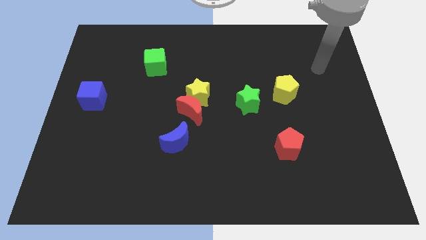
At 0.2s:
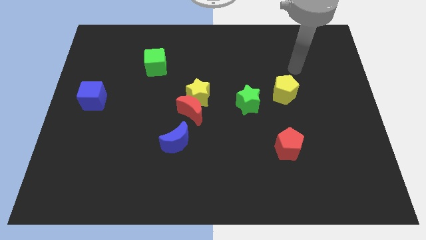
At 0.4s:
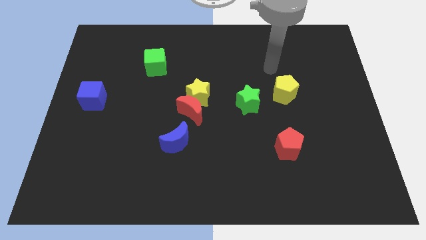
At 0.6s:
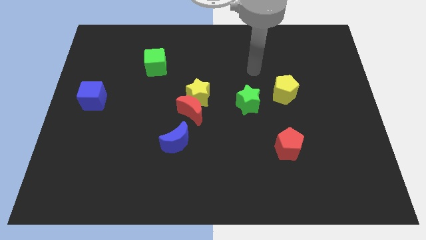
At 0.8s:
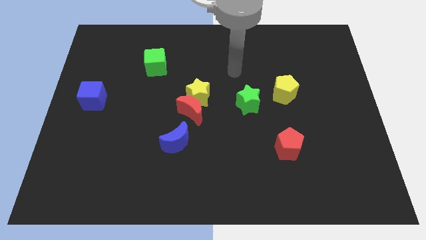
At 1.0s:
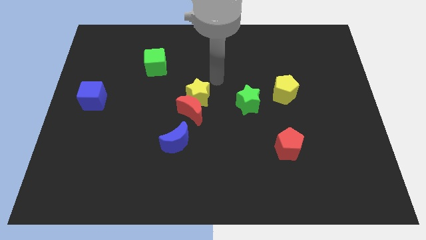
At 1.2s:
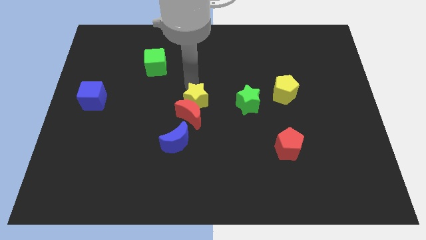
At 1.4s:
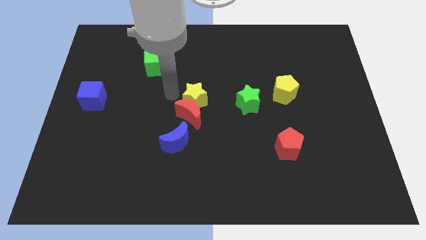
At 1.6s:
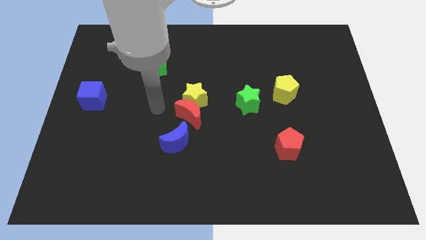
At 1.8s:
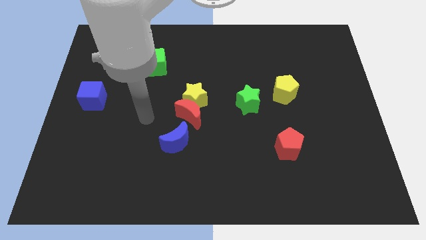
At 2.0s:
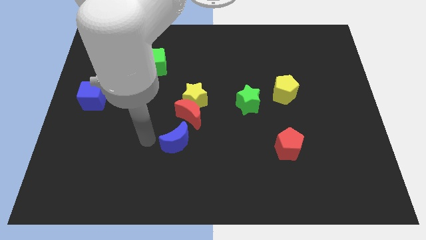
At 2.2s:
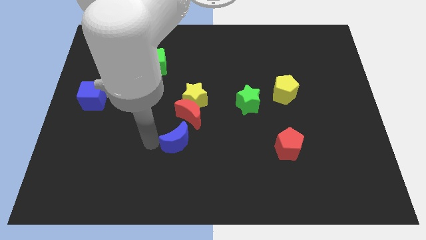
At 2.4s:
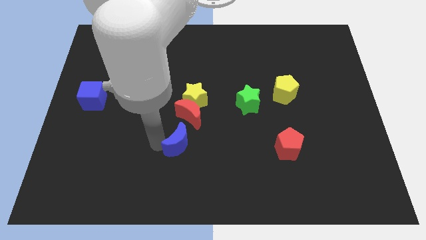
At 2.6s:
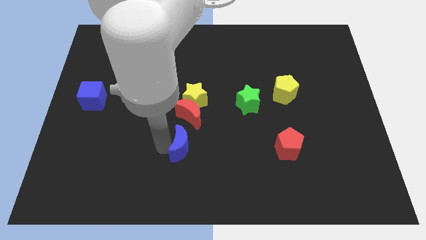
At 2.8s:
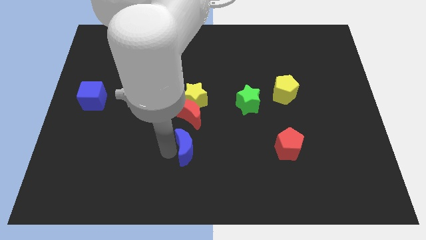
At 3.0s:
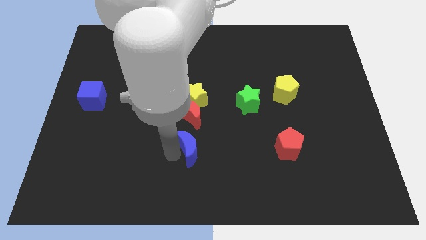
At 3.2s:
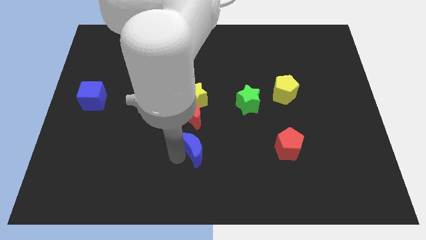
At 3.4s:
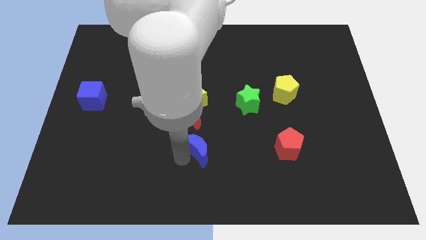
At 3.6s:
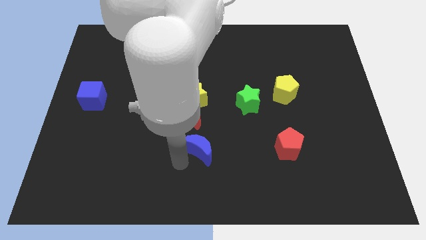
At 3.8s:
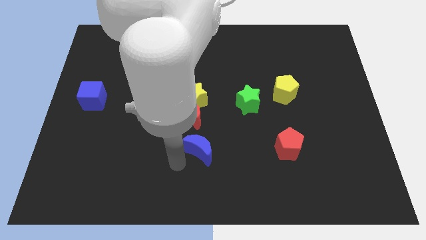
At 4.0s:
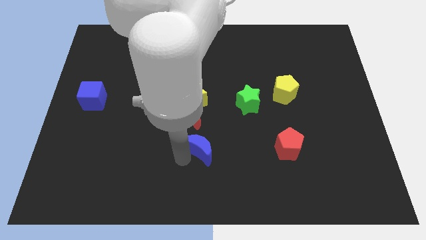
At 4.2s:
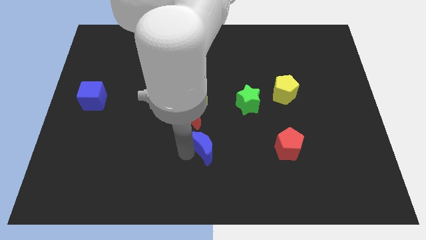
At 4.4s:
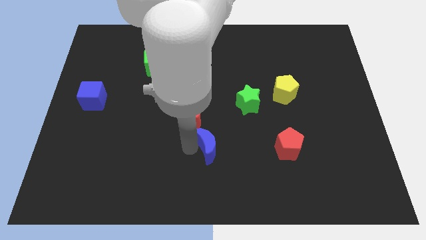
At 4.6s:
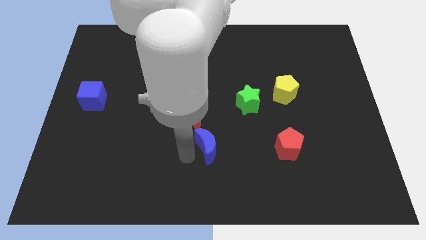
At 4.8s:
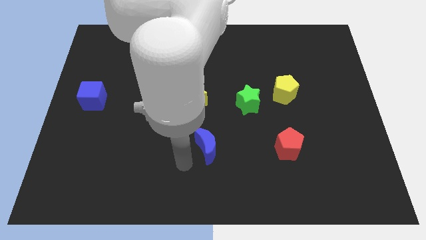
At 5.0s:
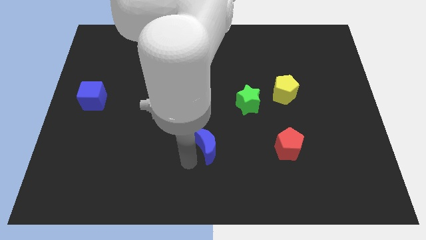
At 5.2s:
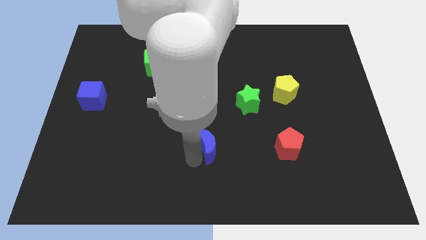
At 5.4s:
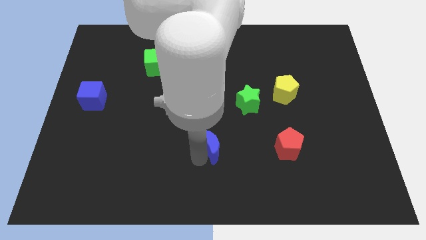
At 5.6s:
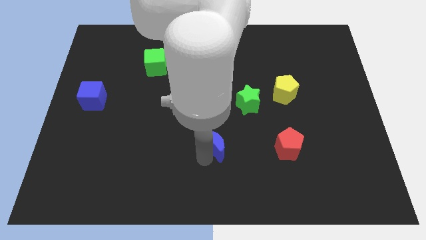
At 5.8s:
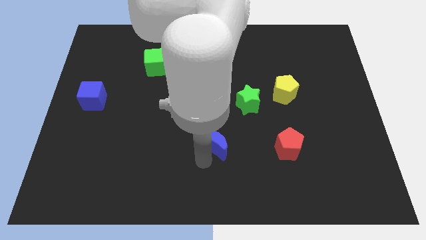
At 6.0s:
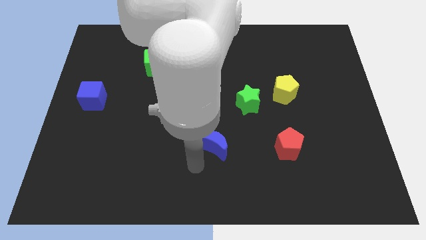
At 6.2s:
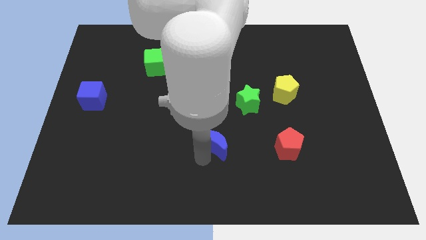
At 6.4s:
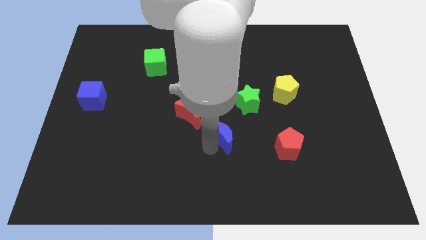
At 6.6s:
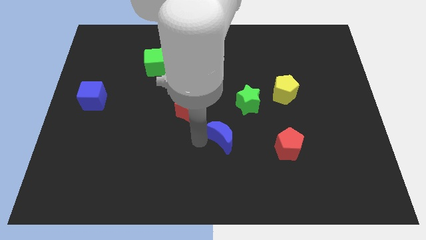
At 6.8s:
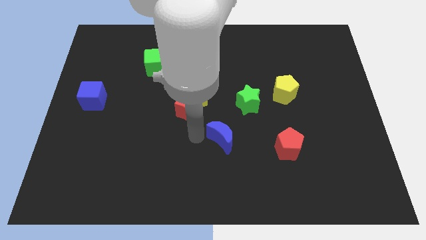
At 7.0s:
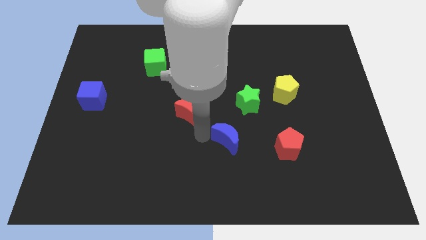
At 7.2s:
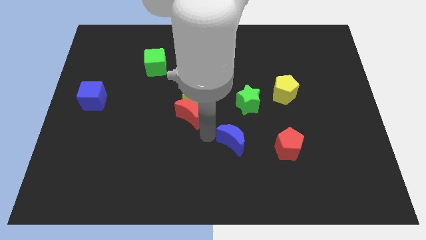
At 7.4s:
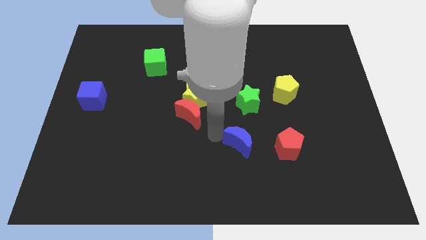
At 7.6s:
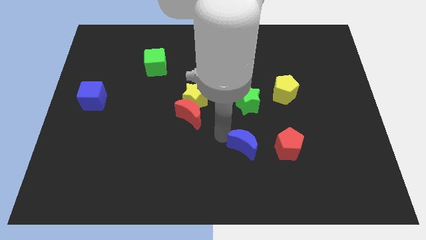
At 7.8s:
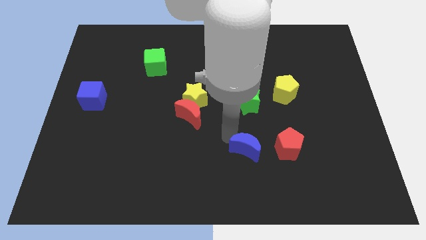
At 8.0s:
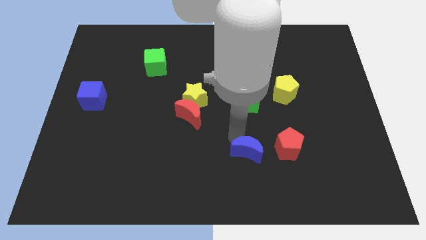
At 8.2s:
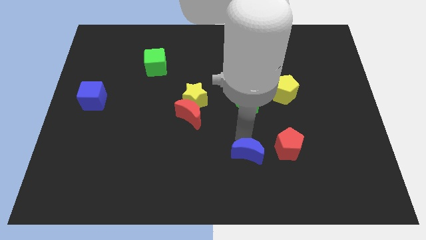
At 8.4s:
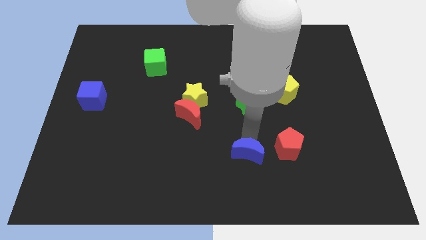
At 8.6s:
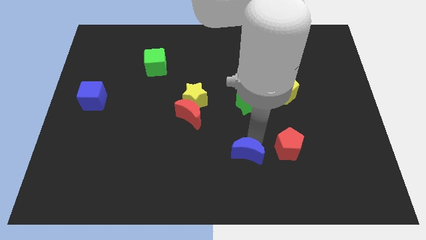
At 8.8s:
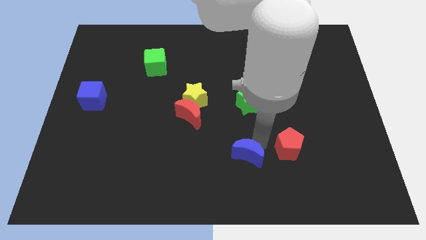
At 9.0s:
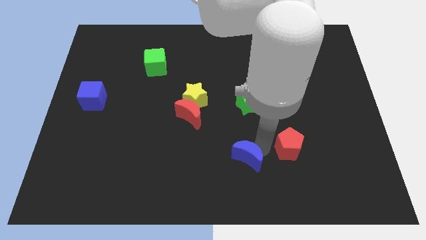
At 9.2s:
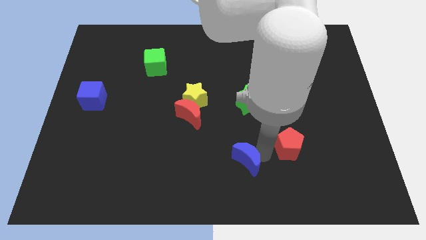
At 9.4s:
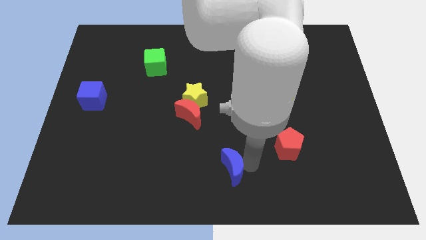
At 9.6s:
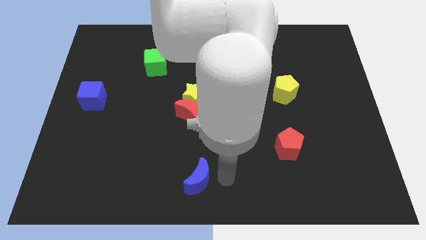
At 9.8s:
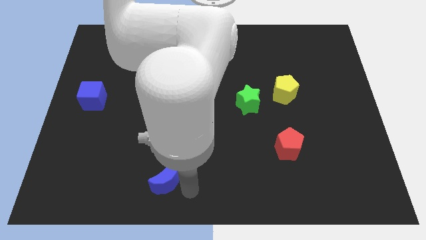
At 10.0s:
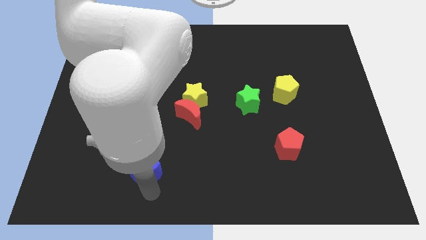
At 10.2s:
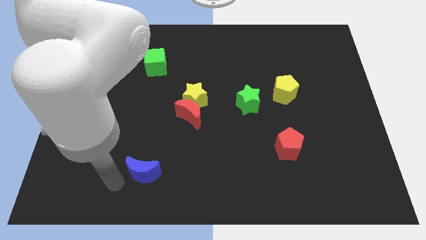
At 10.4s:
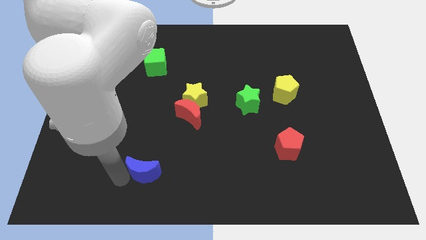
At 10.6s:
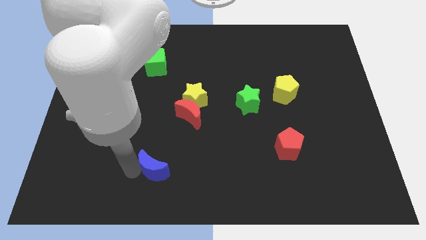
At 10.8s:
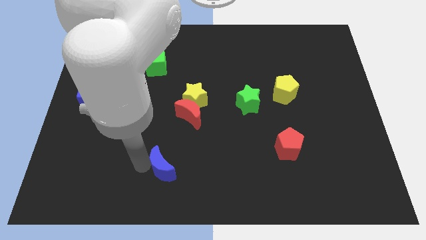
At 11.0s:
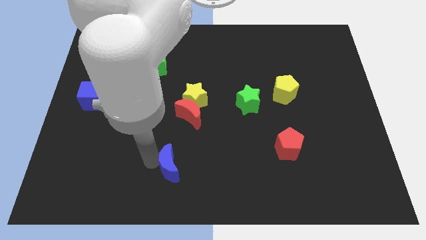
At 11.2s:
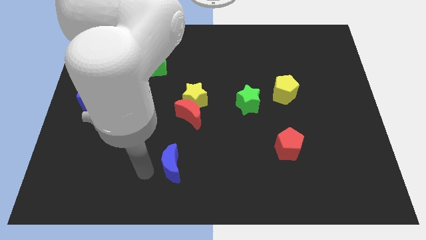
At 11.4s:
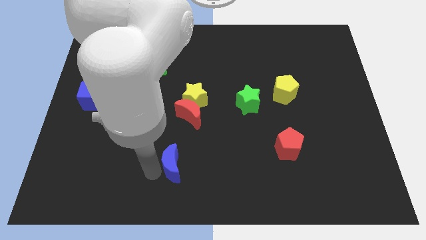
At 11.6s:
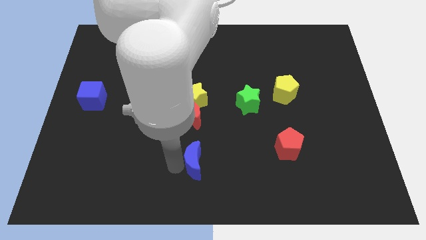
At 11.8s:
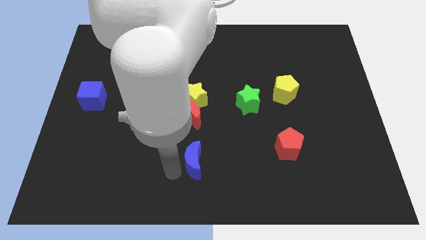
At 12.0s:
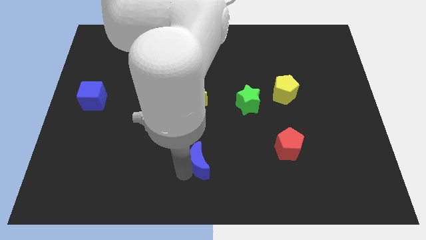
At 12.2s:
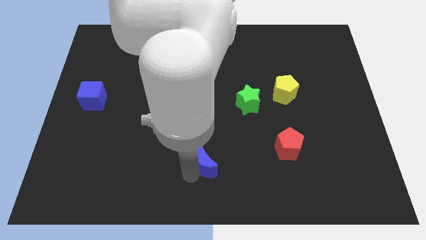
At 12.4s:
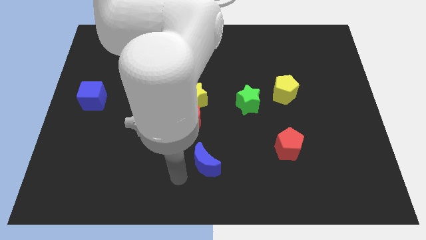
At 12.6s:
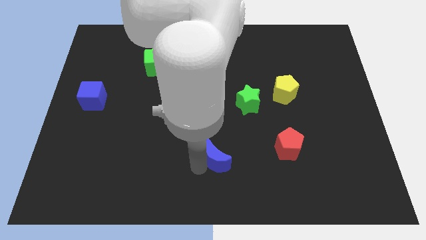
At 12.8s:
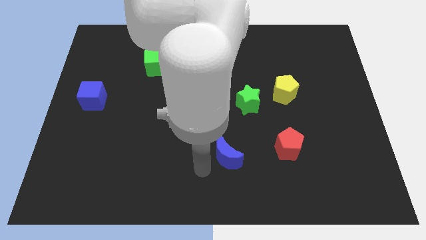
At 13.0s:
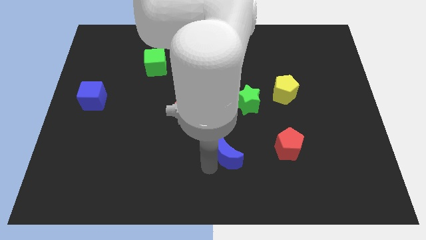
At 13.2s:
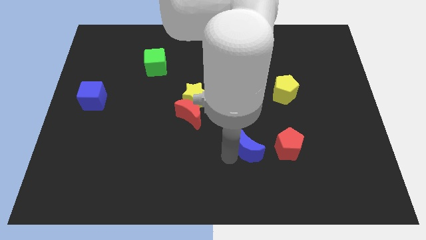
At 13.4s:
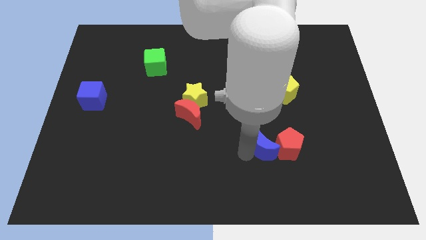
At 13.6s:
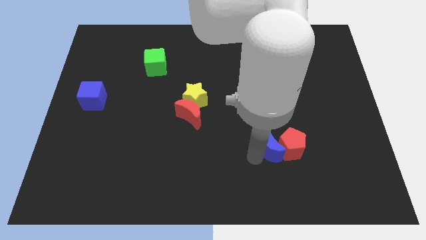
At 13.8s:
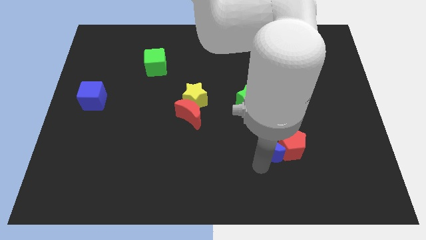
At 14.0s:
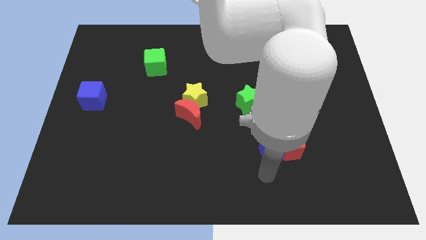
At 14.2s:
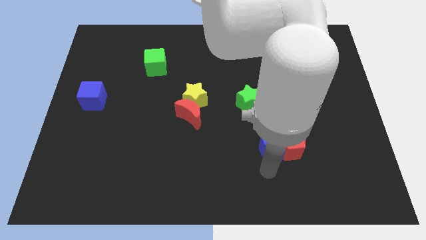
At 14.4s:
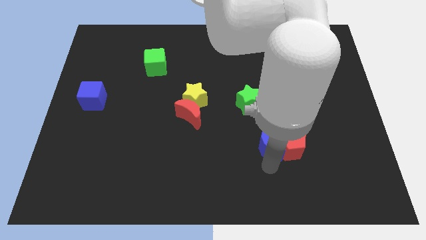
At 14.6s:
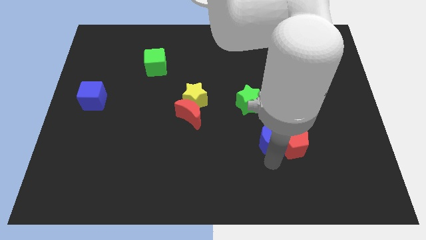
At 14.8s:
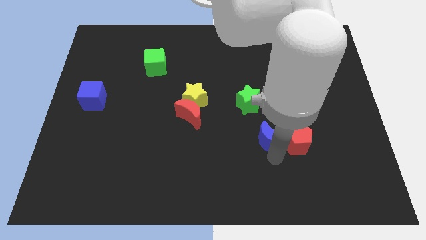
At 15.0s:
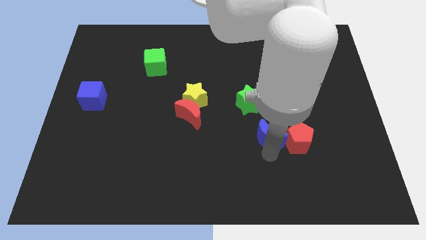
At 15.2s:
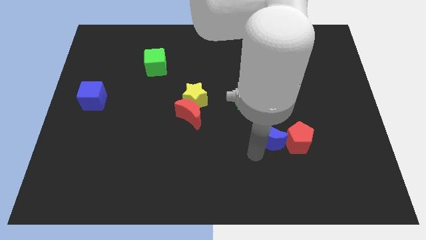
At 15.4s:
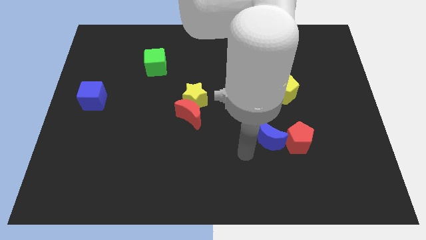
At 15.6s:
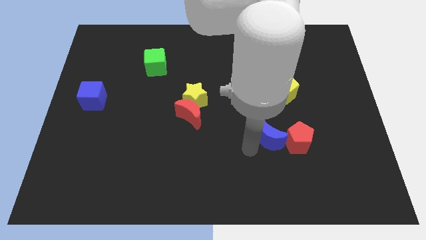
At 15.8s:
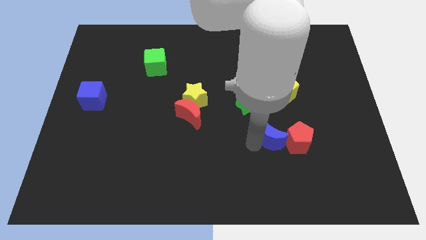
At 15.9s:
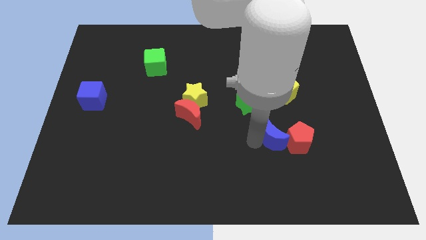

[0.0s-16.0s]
move the blue moon to the bottom of the yellow pentagon
